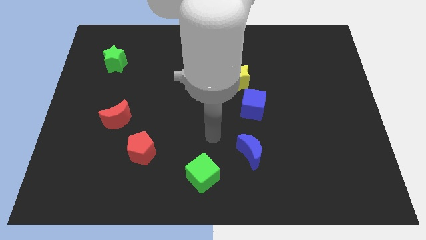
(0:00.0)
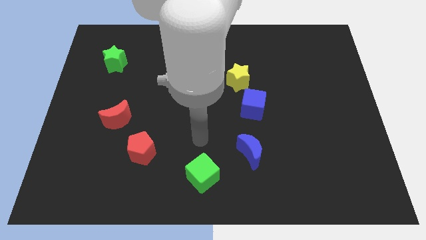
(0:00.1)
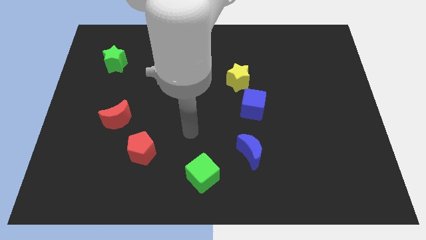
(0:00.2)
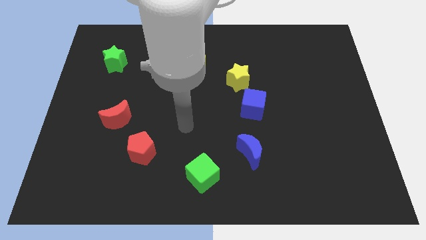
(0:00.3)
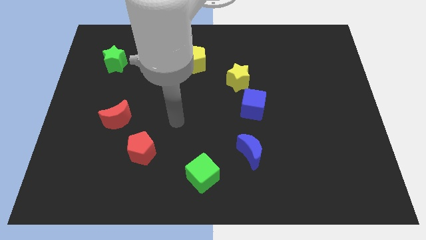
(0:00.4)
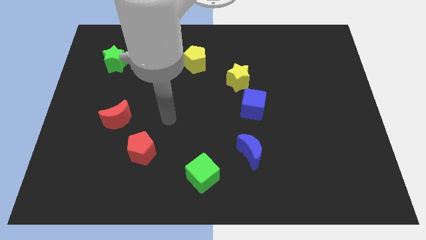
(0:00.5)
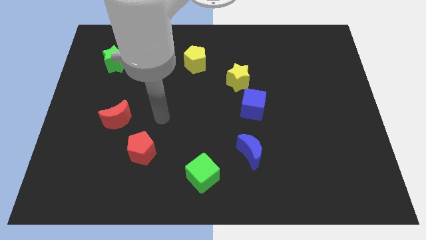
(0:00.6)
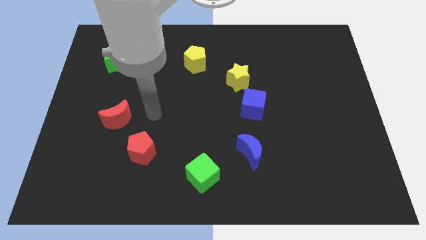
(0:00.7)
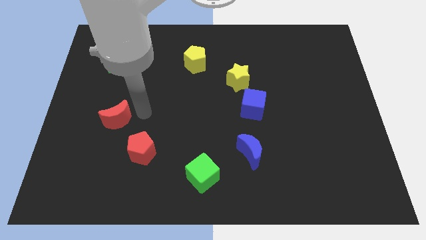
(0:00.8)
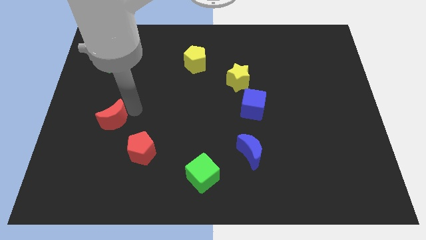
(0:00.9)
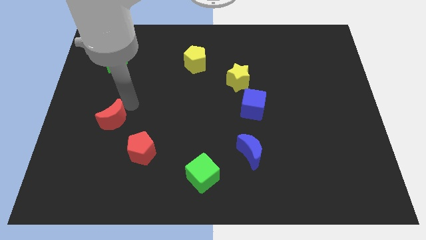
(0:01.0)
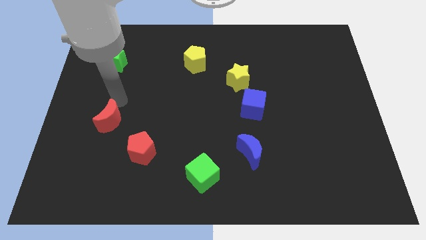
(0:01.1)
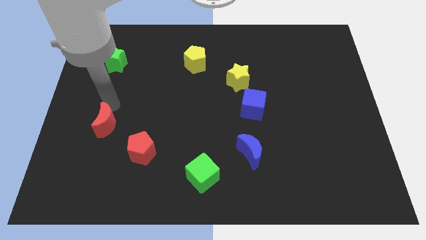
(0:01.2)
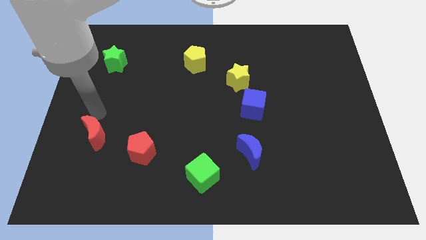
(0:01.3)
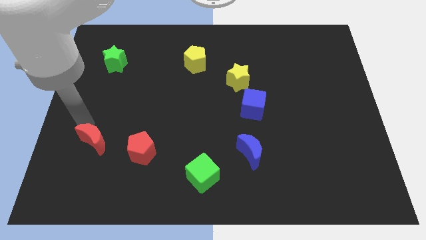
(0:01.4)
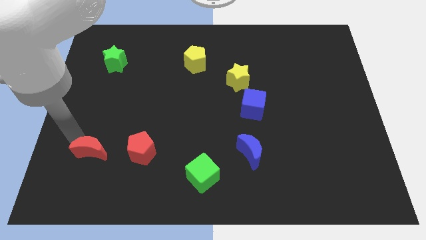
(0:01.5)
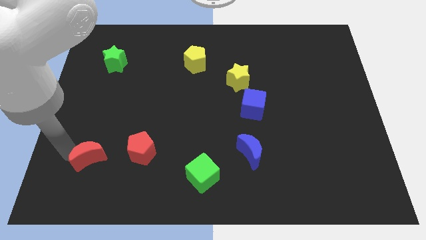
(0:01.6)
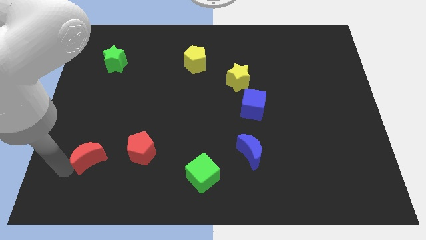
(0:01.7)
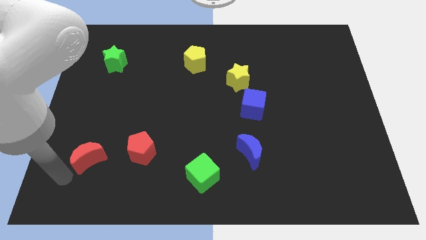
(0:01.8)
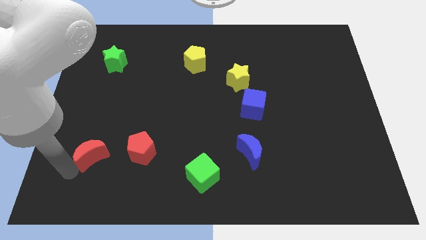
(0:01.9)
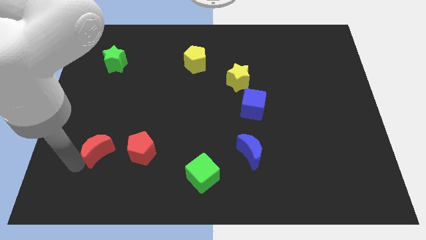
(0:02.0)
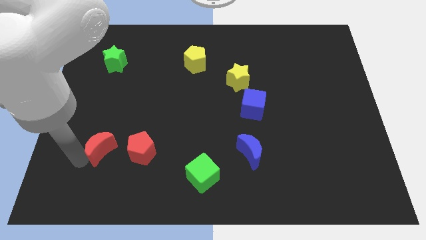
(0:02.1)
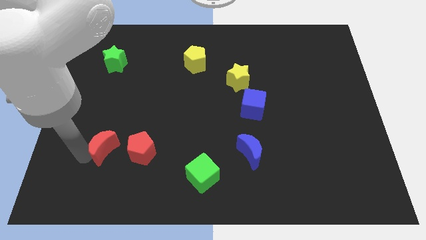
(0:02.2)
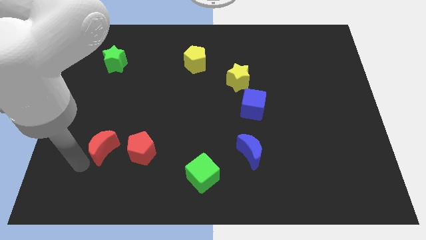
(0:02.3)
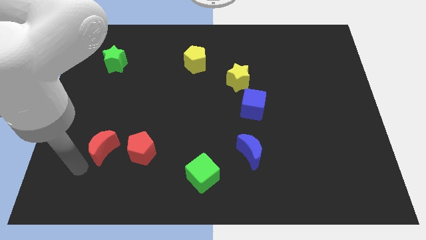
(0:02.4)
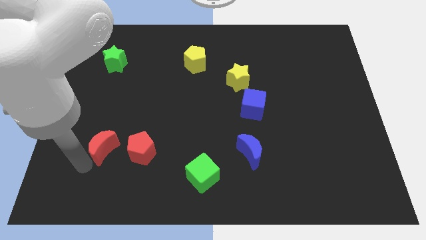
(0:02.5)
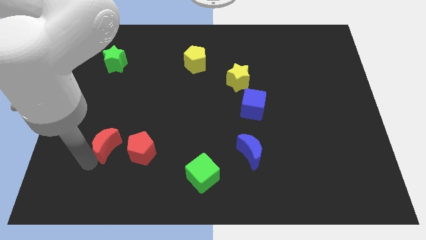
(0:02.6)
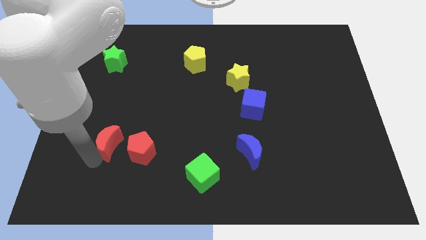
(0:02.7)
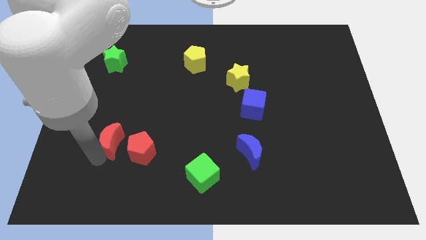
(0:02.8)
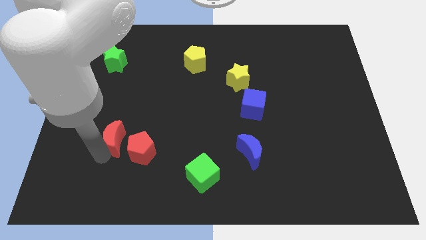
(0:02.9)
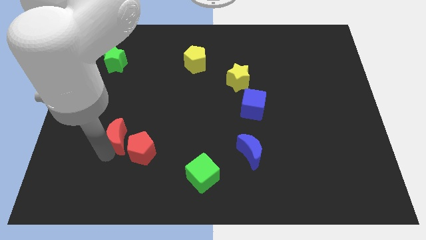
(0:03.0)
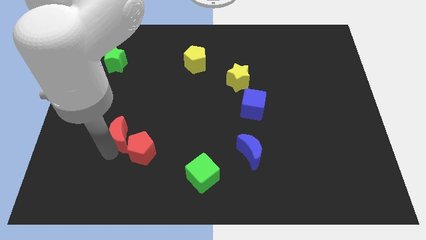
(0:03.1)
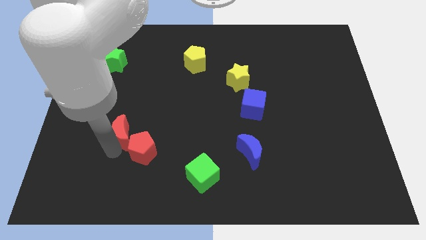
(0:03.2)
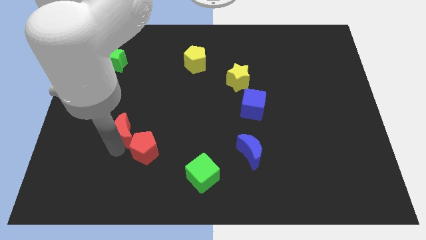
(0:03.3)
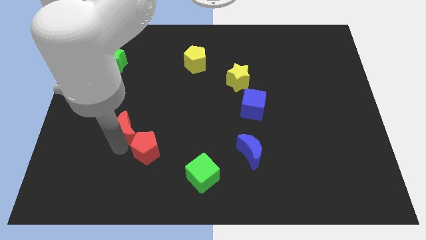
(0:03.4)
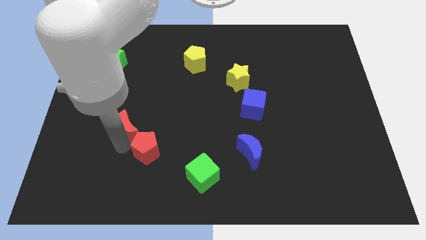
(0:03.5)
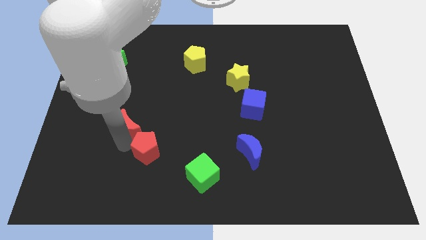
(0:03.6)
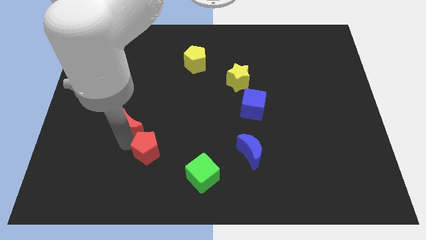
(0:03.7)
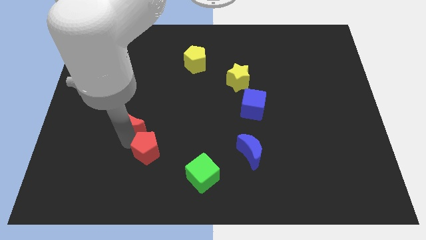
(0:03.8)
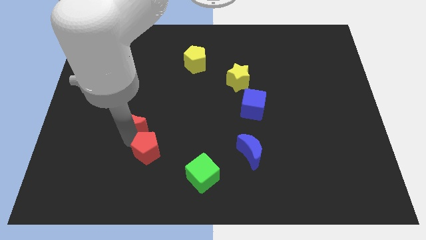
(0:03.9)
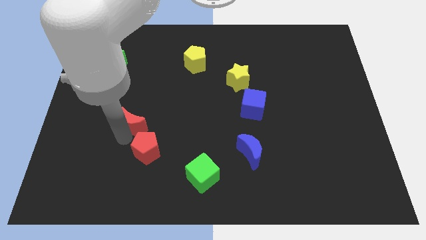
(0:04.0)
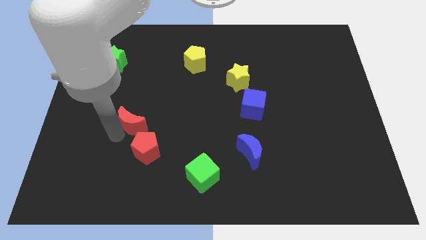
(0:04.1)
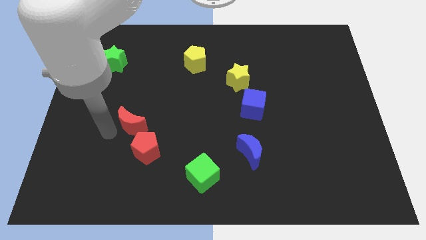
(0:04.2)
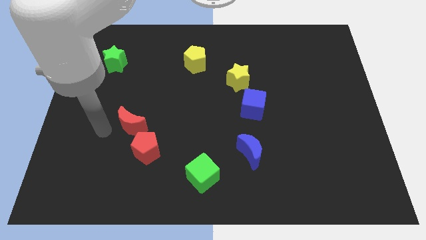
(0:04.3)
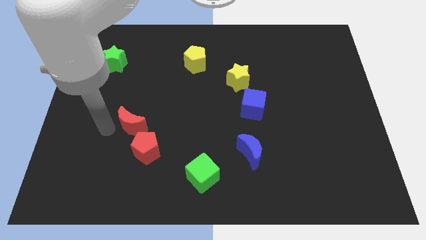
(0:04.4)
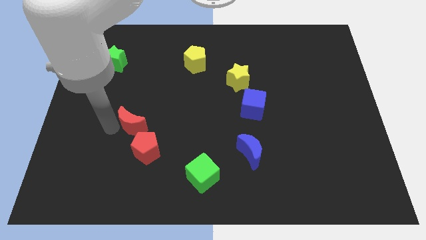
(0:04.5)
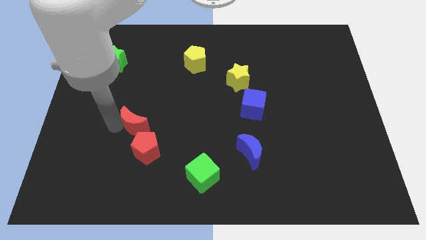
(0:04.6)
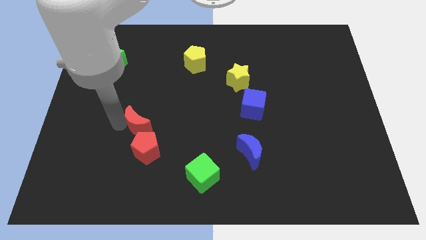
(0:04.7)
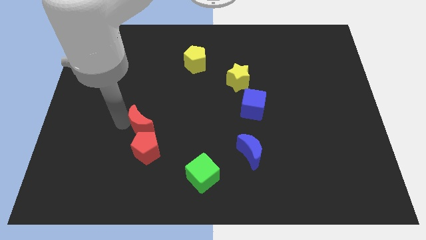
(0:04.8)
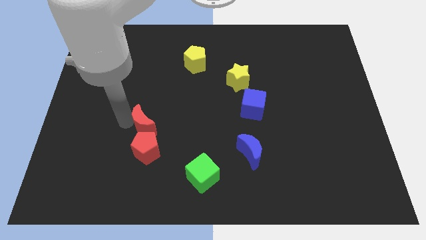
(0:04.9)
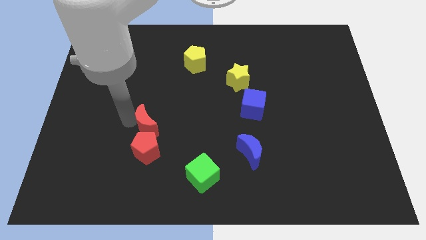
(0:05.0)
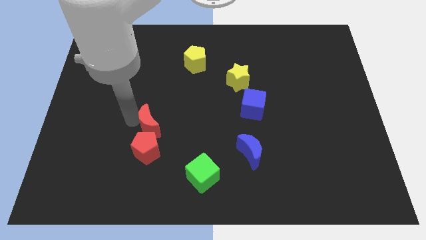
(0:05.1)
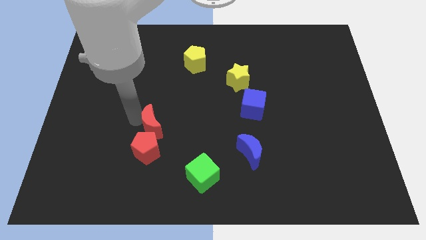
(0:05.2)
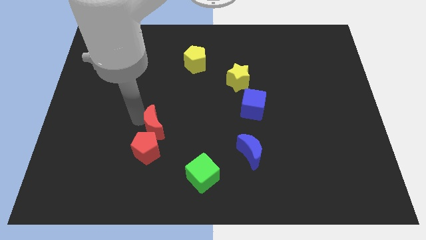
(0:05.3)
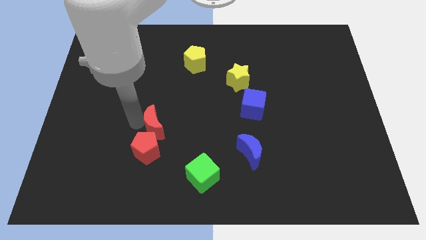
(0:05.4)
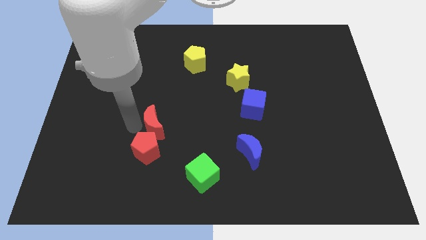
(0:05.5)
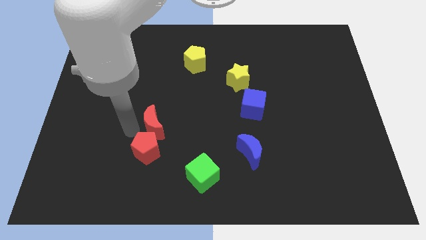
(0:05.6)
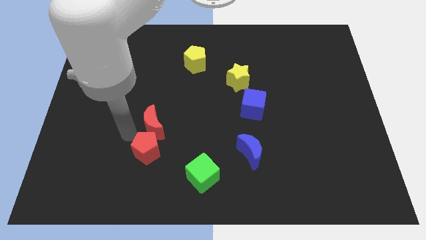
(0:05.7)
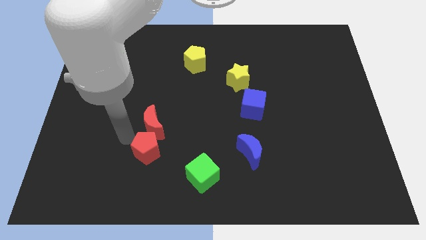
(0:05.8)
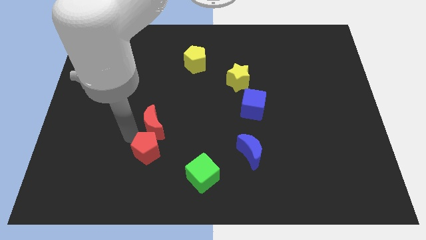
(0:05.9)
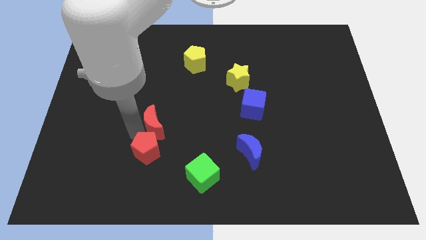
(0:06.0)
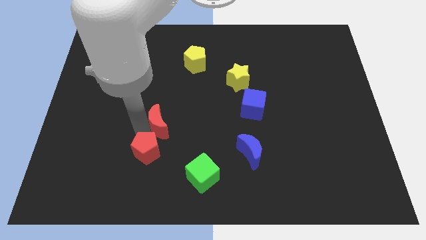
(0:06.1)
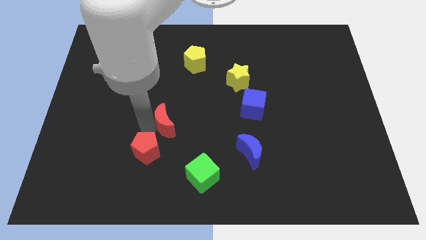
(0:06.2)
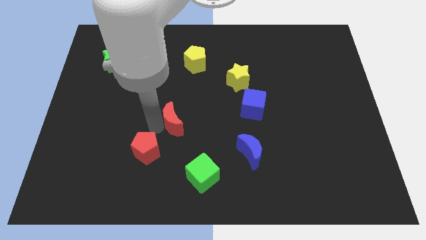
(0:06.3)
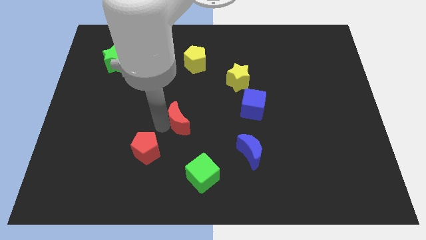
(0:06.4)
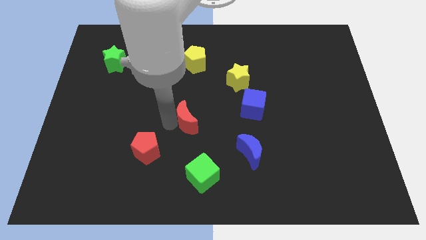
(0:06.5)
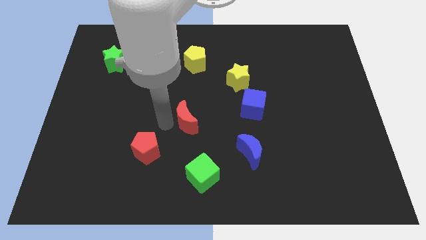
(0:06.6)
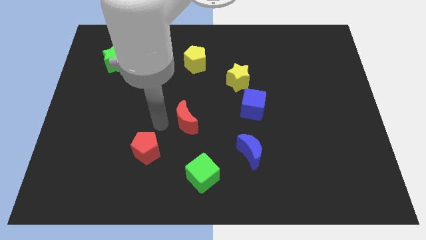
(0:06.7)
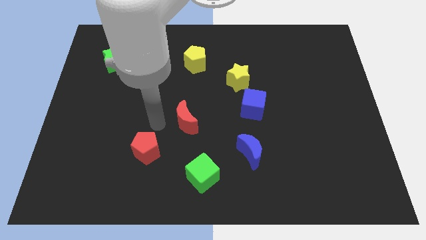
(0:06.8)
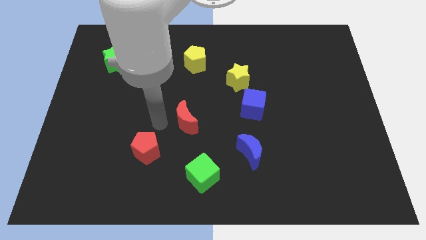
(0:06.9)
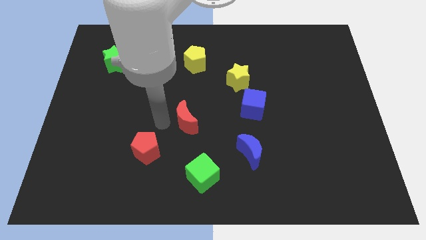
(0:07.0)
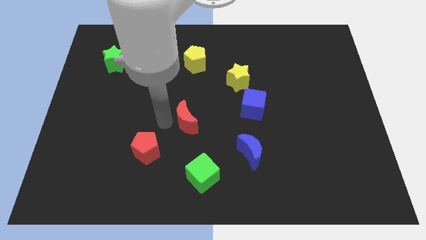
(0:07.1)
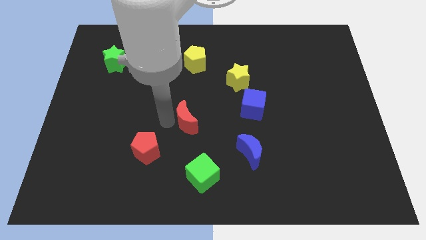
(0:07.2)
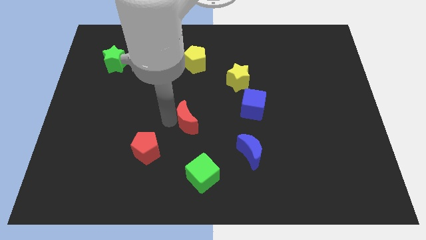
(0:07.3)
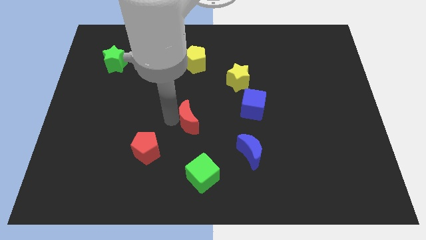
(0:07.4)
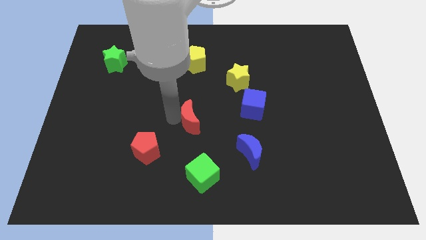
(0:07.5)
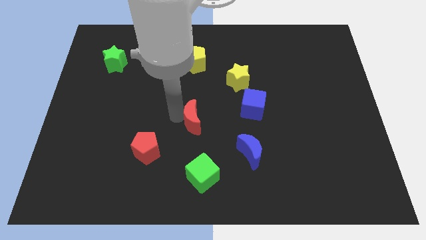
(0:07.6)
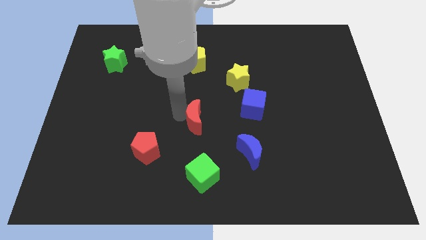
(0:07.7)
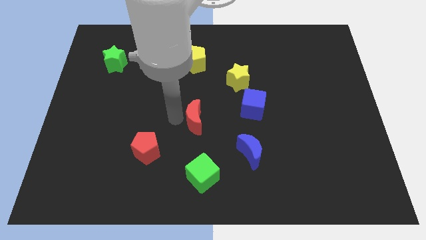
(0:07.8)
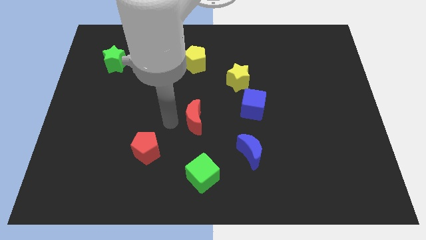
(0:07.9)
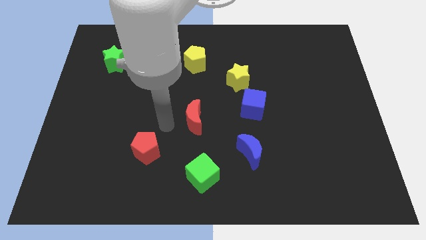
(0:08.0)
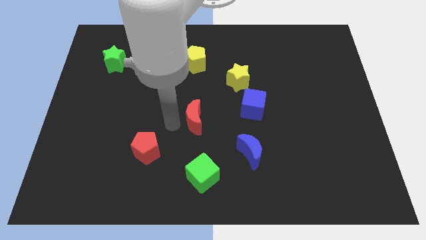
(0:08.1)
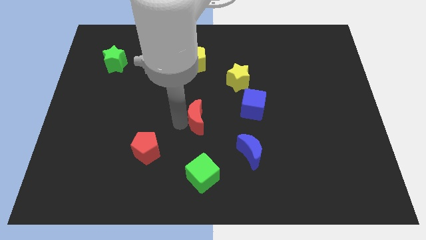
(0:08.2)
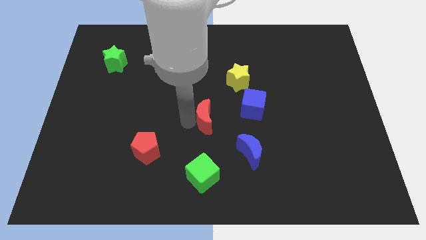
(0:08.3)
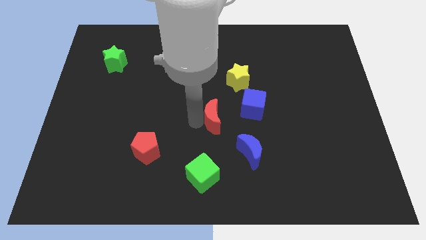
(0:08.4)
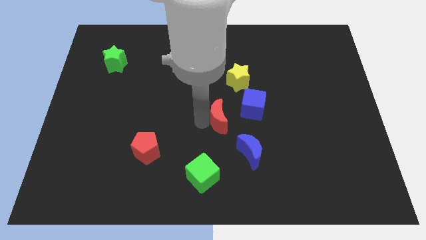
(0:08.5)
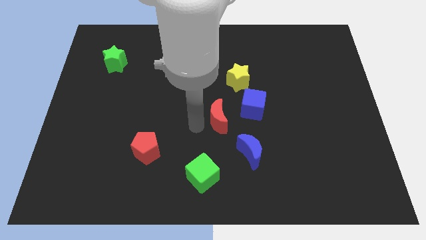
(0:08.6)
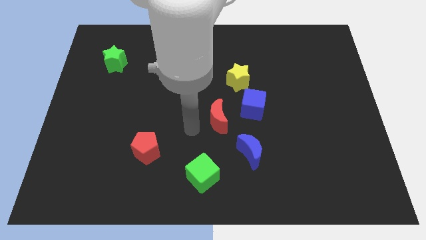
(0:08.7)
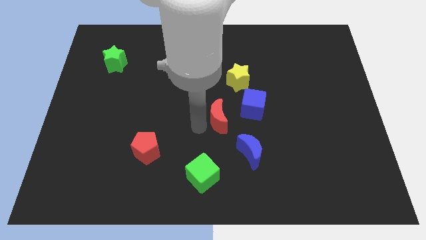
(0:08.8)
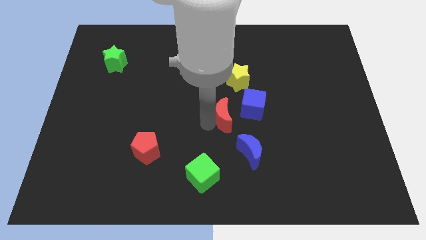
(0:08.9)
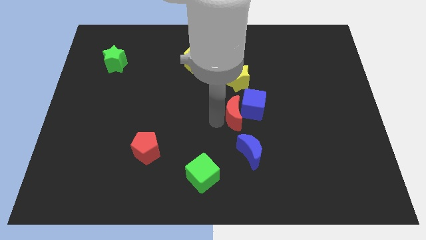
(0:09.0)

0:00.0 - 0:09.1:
put the red moon next to the blue cube
